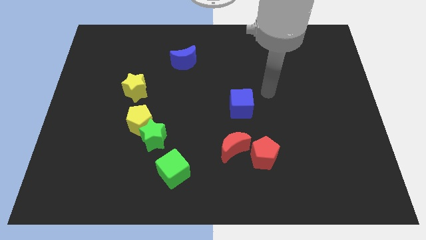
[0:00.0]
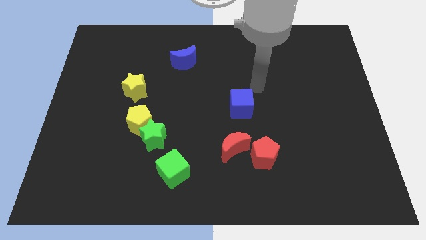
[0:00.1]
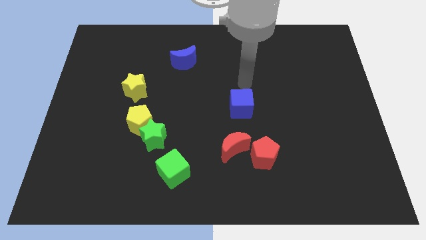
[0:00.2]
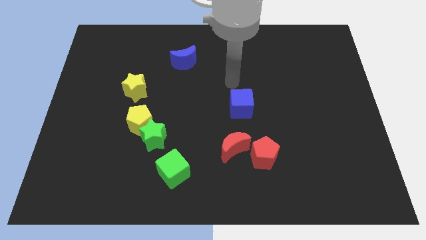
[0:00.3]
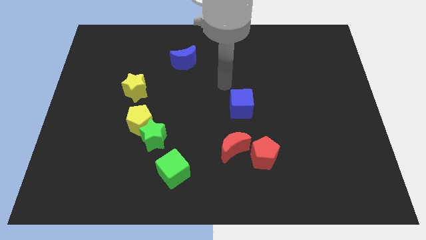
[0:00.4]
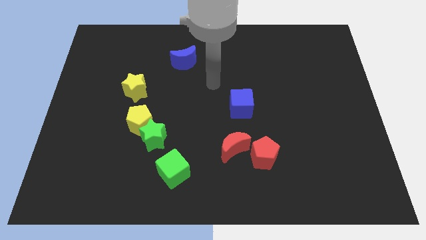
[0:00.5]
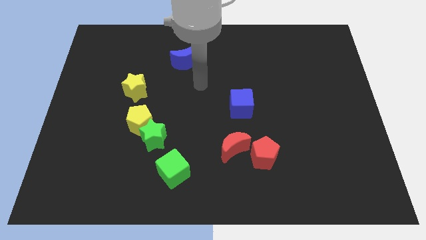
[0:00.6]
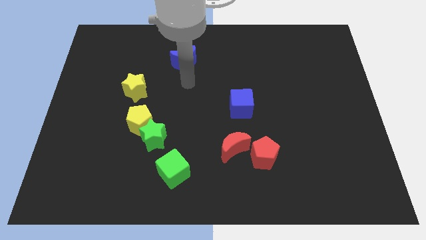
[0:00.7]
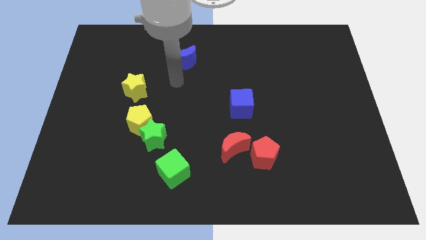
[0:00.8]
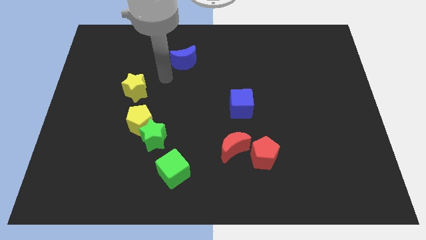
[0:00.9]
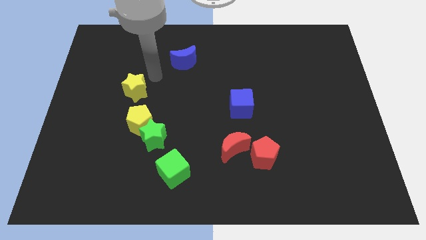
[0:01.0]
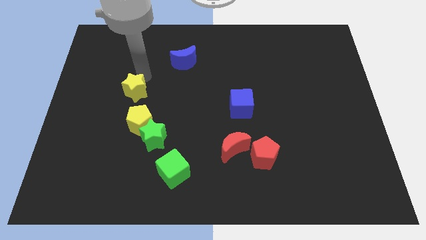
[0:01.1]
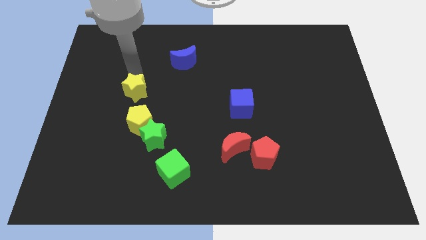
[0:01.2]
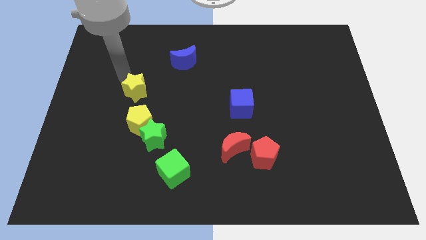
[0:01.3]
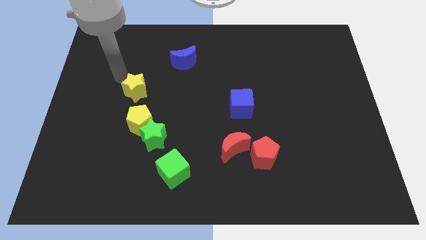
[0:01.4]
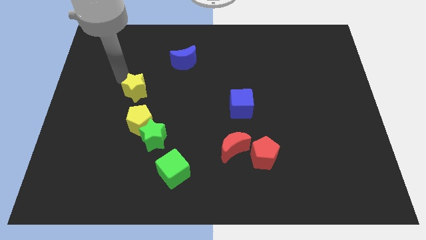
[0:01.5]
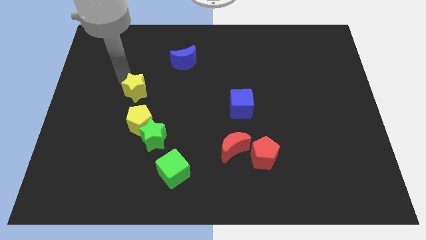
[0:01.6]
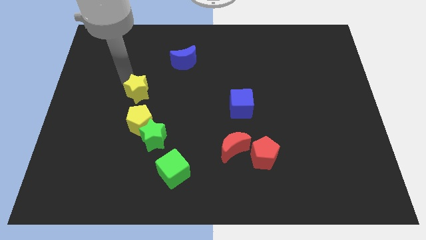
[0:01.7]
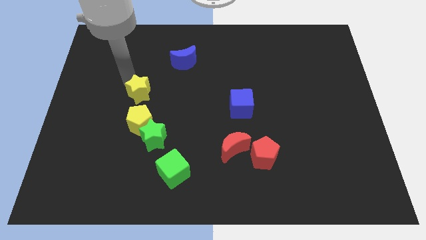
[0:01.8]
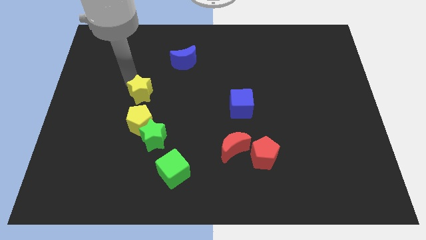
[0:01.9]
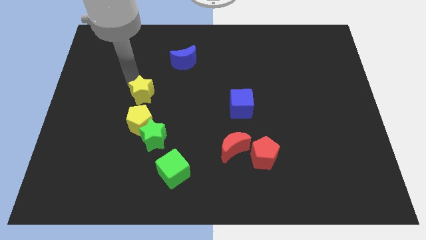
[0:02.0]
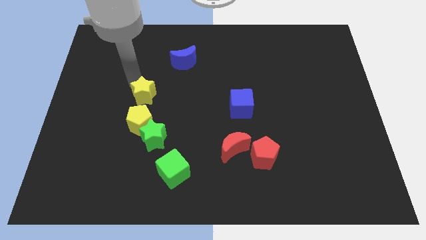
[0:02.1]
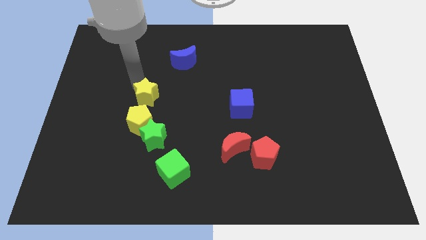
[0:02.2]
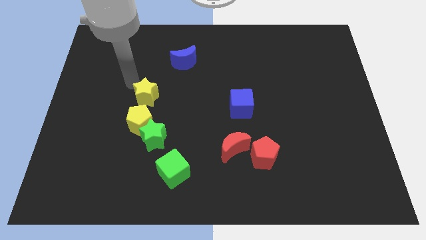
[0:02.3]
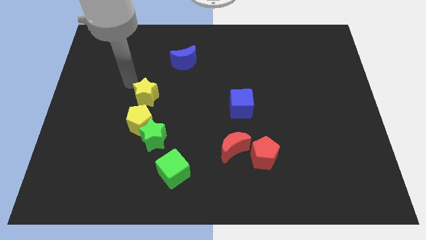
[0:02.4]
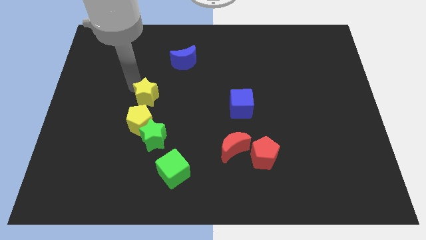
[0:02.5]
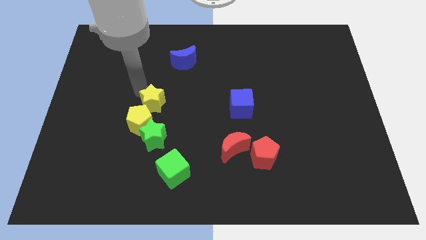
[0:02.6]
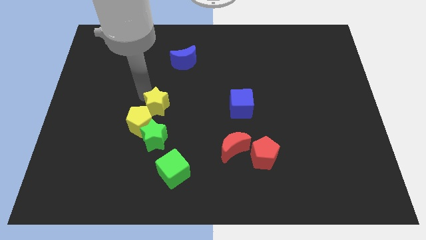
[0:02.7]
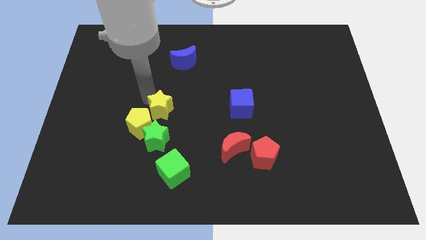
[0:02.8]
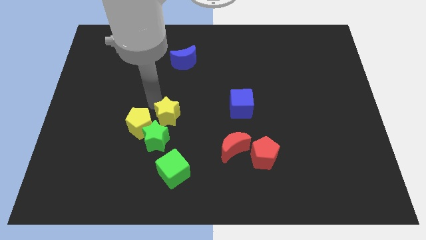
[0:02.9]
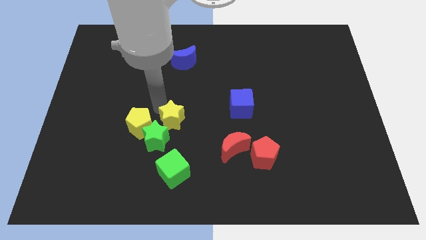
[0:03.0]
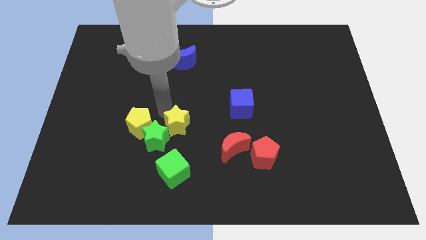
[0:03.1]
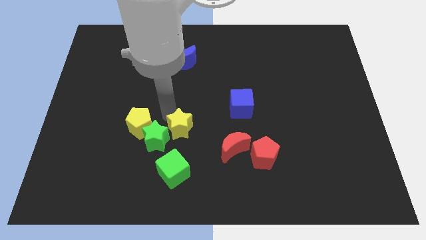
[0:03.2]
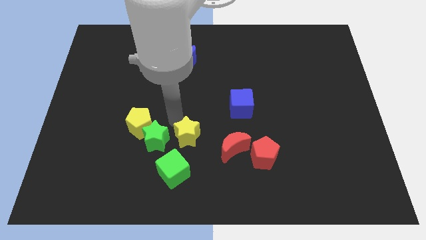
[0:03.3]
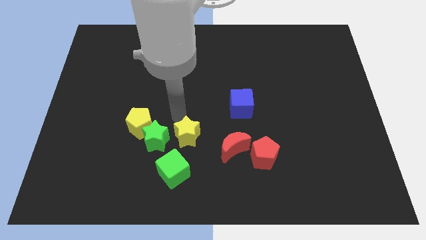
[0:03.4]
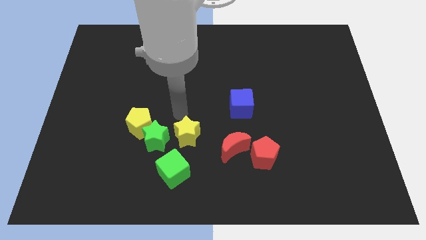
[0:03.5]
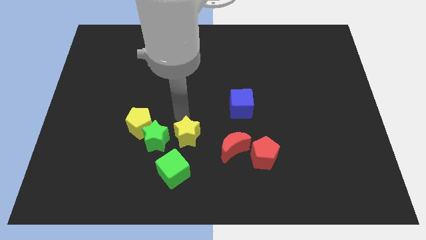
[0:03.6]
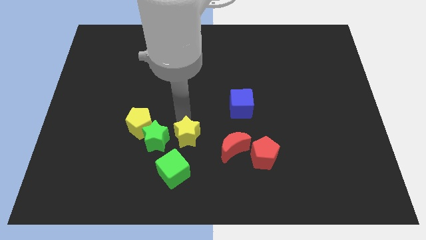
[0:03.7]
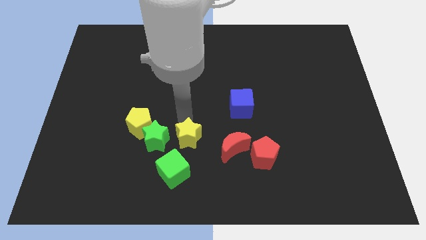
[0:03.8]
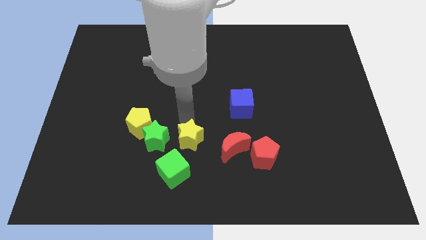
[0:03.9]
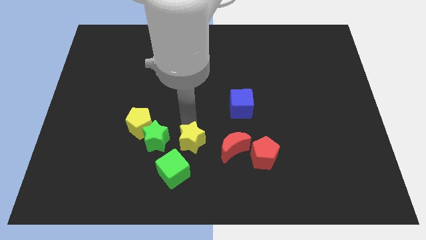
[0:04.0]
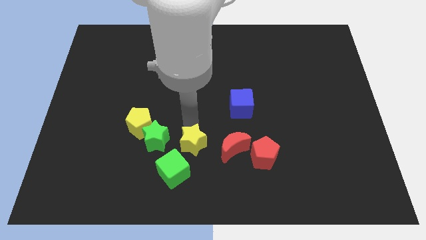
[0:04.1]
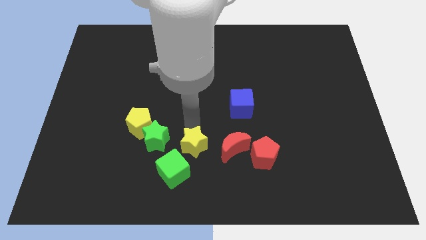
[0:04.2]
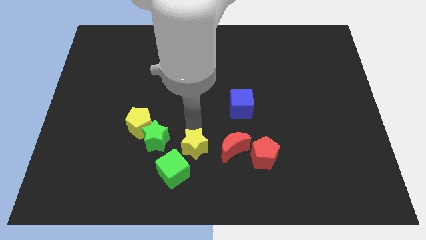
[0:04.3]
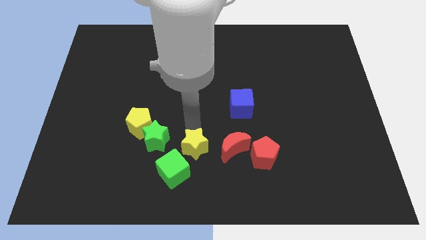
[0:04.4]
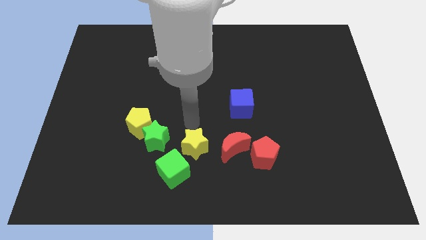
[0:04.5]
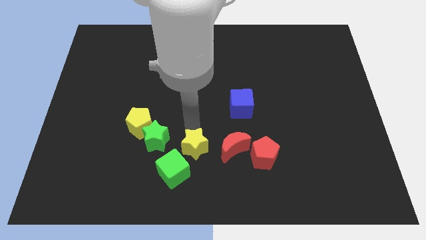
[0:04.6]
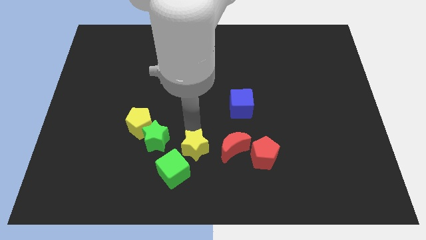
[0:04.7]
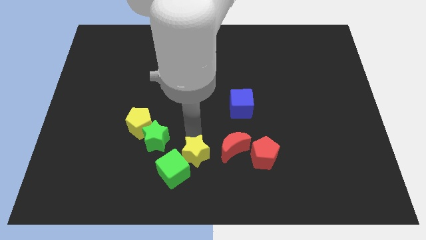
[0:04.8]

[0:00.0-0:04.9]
push the yellow star to the bottom side

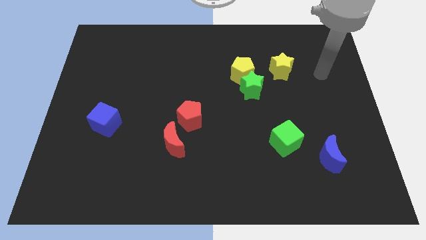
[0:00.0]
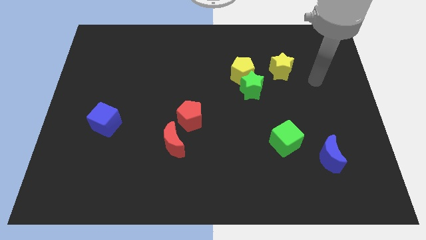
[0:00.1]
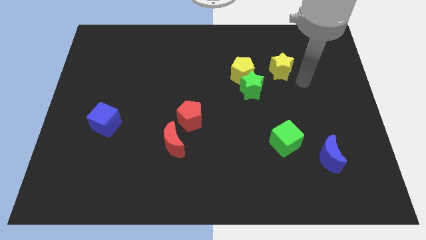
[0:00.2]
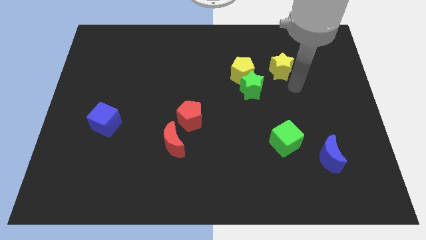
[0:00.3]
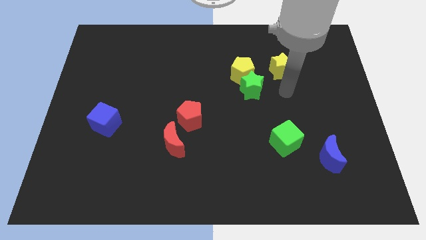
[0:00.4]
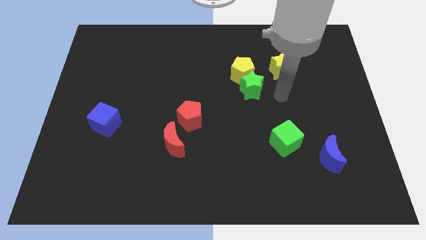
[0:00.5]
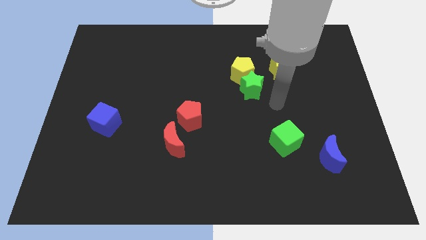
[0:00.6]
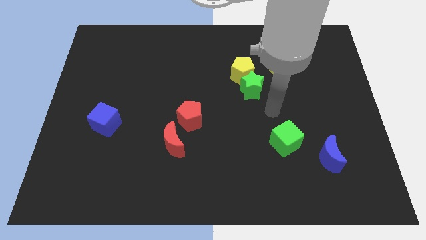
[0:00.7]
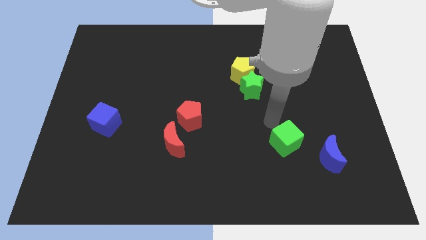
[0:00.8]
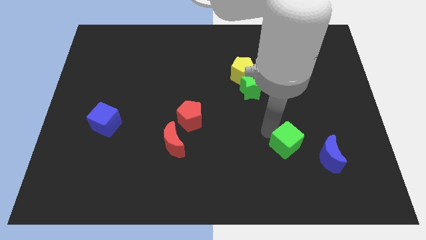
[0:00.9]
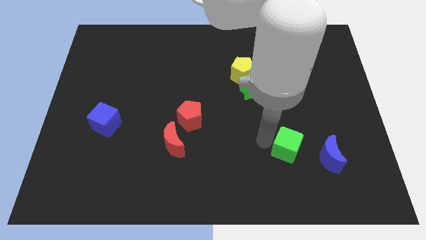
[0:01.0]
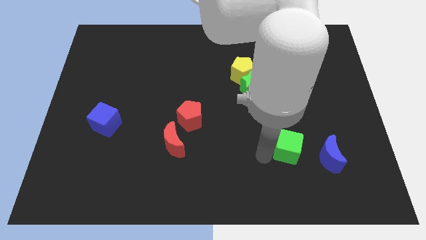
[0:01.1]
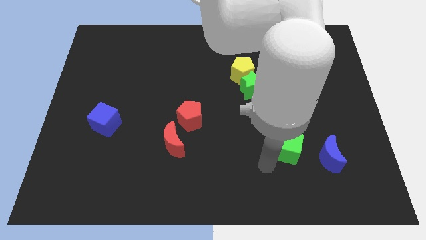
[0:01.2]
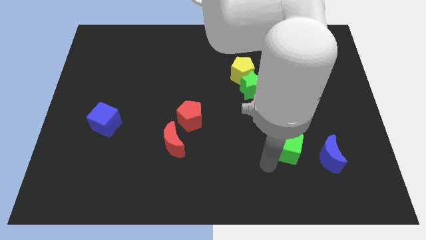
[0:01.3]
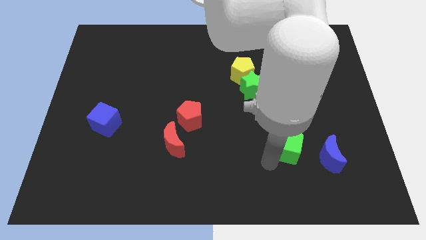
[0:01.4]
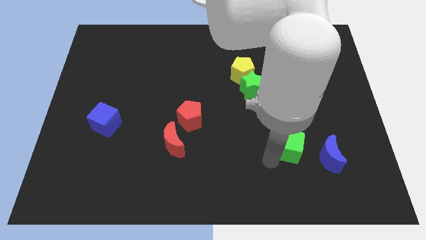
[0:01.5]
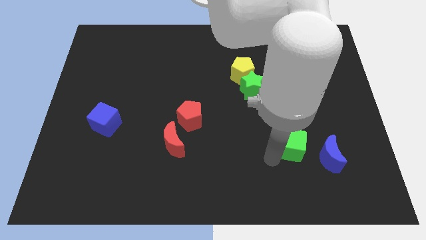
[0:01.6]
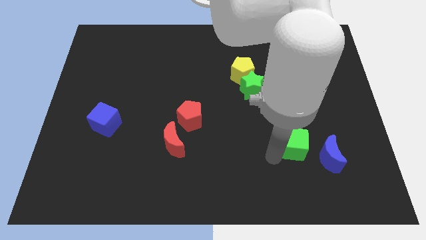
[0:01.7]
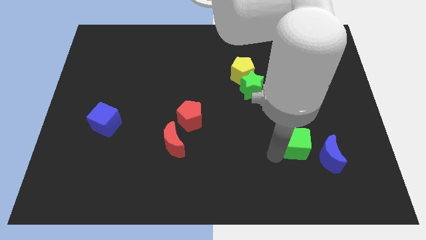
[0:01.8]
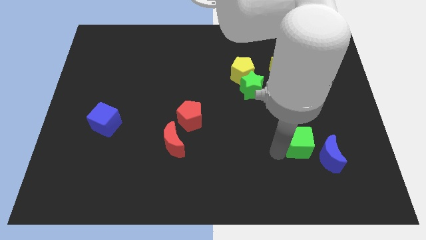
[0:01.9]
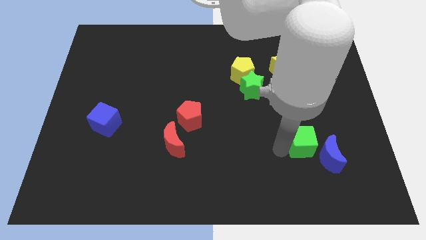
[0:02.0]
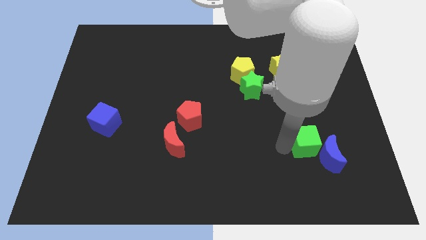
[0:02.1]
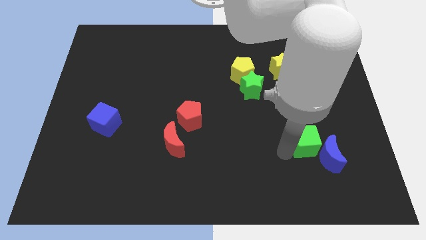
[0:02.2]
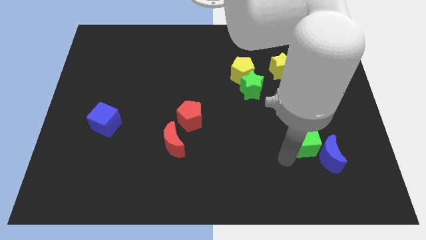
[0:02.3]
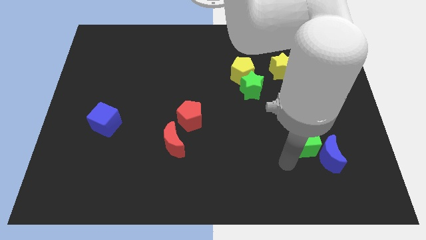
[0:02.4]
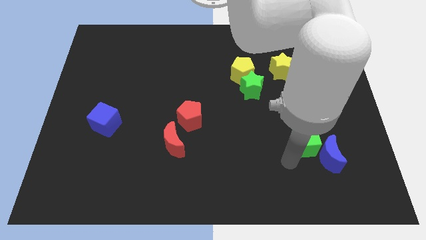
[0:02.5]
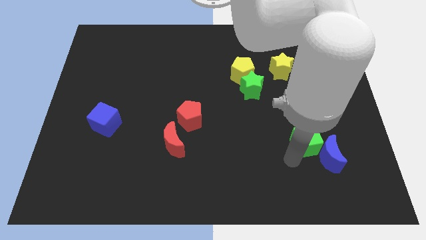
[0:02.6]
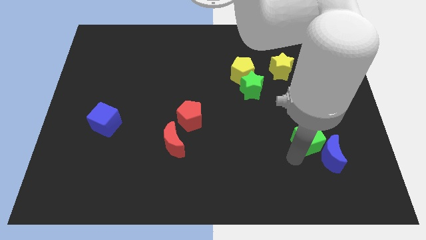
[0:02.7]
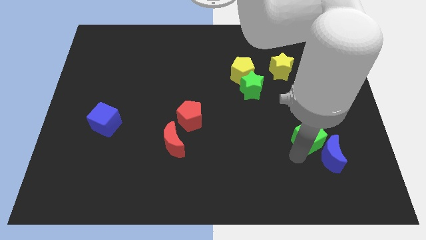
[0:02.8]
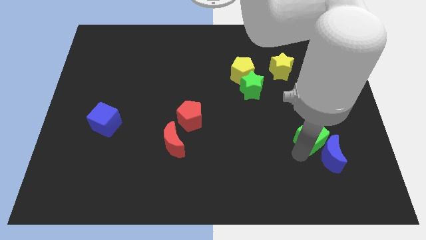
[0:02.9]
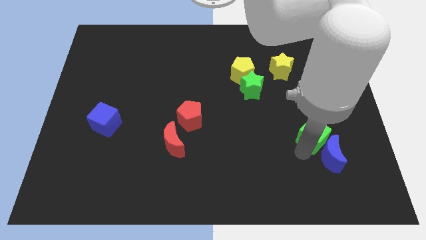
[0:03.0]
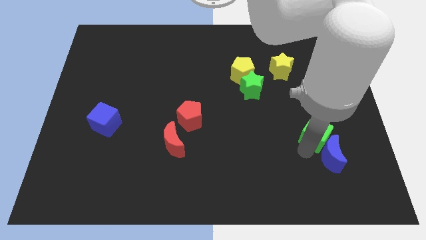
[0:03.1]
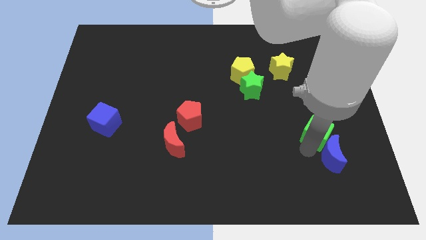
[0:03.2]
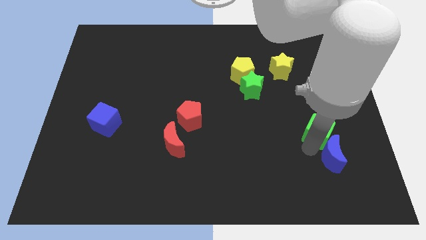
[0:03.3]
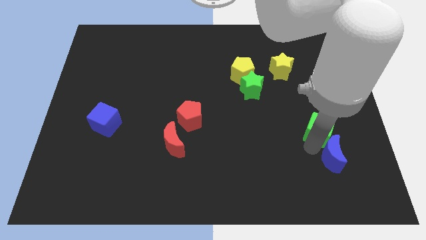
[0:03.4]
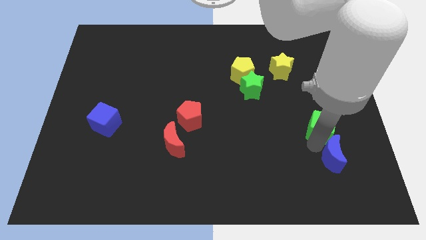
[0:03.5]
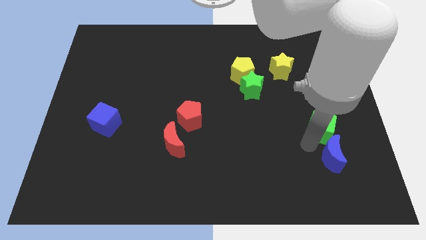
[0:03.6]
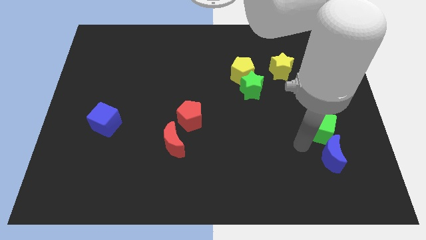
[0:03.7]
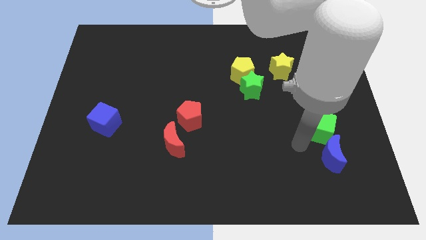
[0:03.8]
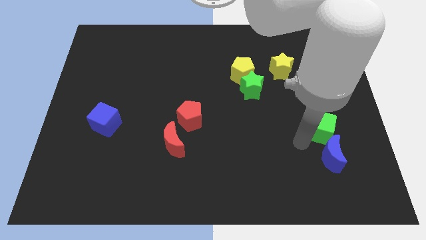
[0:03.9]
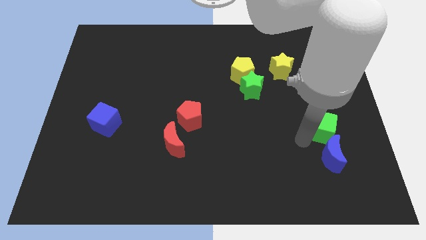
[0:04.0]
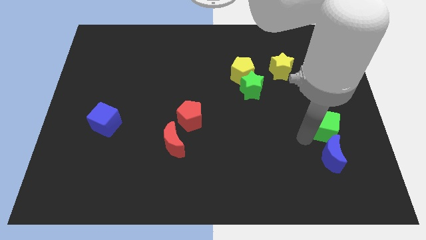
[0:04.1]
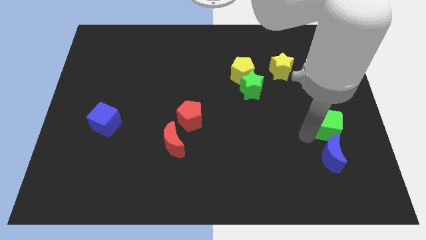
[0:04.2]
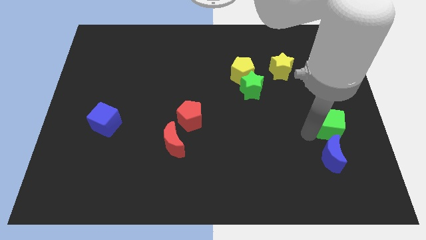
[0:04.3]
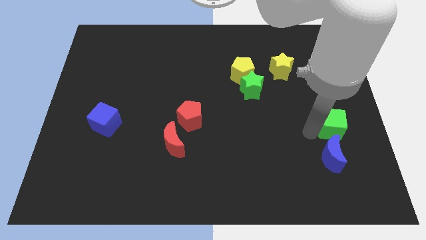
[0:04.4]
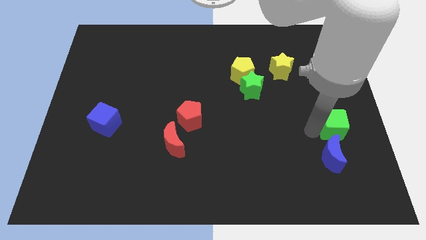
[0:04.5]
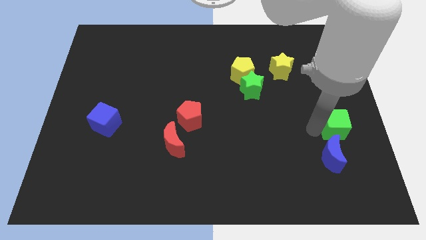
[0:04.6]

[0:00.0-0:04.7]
push the green cube to the right side of the board
